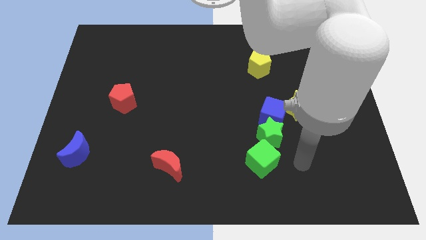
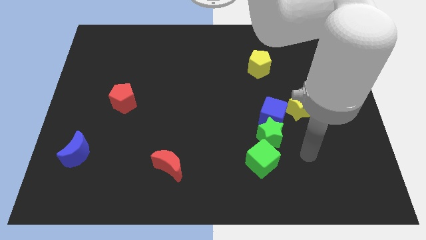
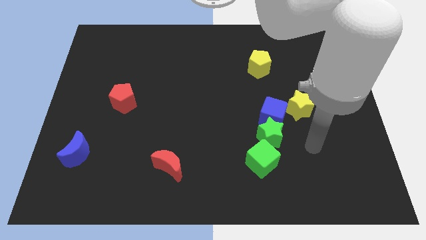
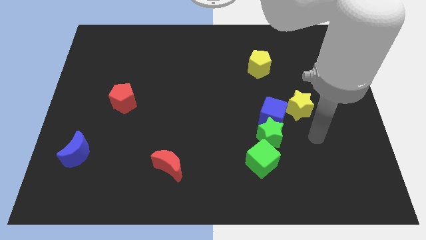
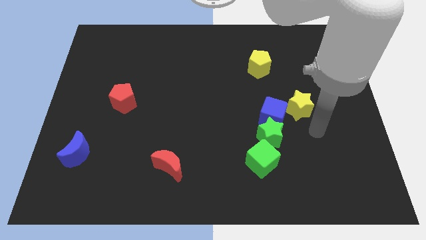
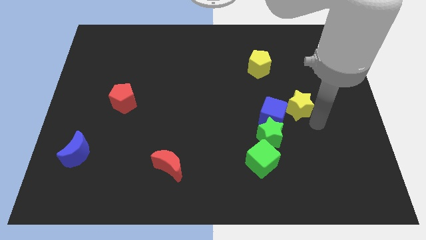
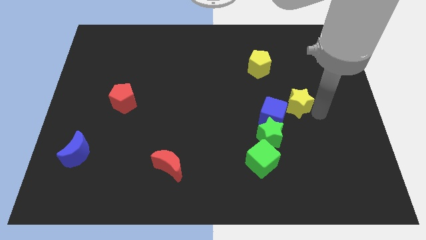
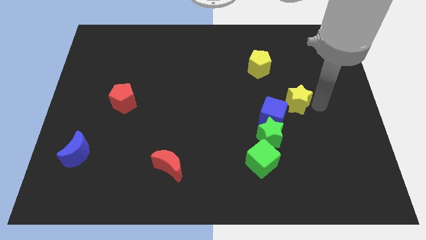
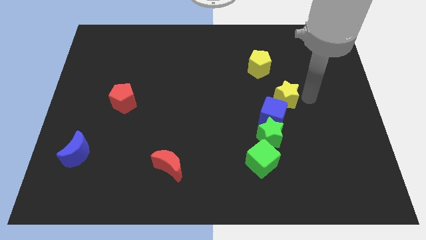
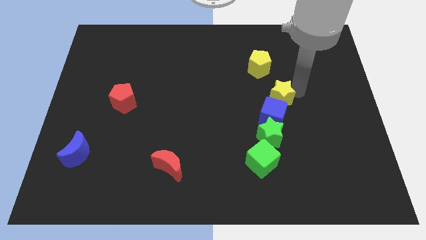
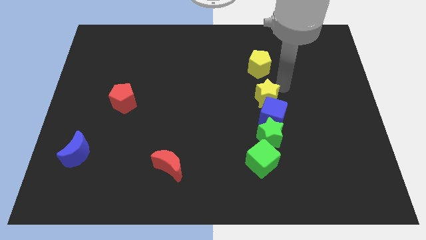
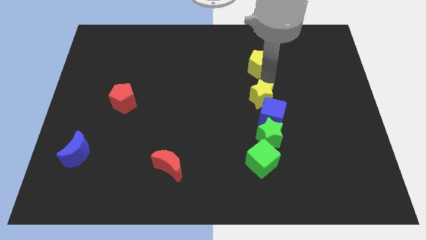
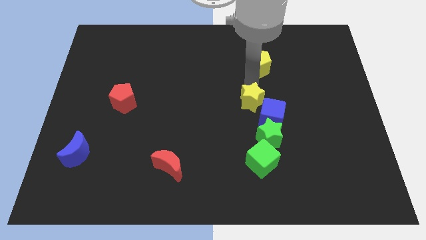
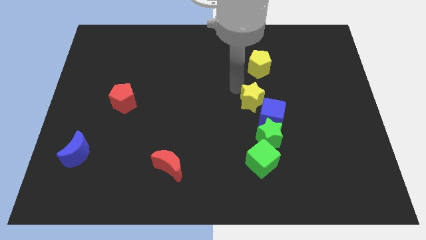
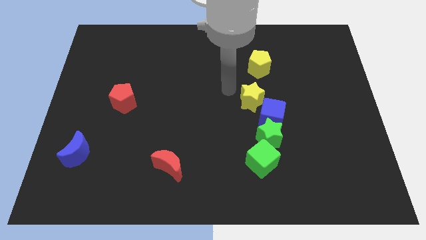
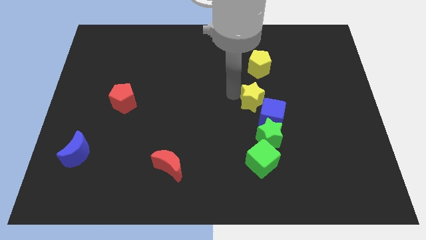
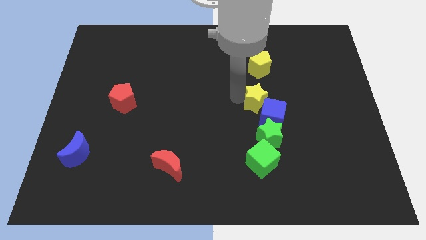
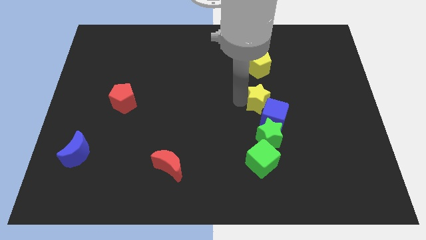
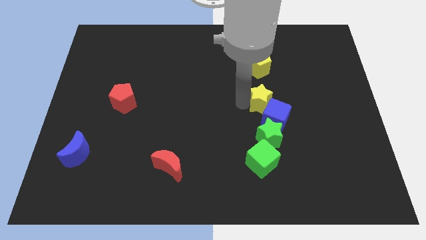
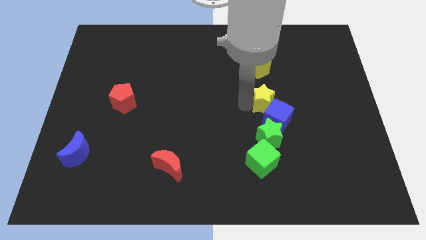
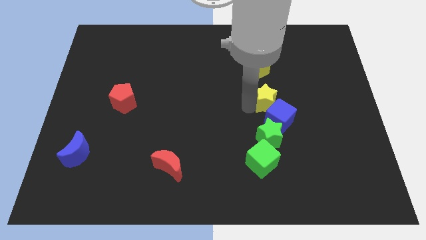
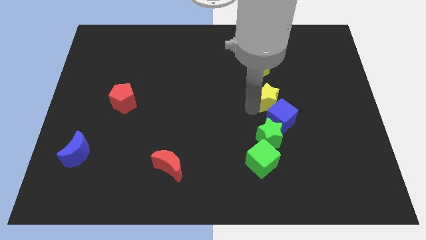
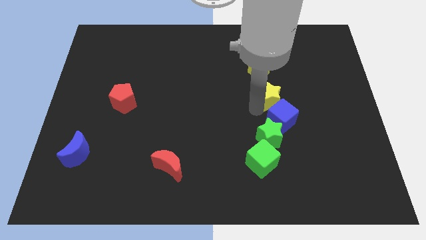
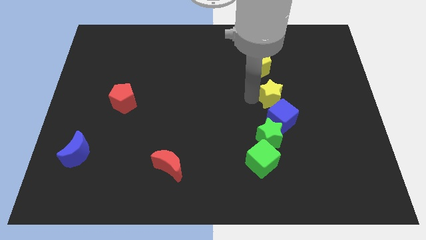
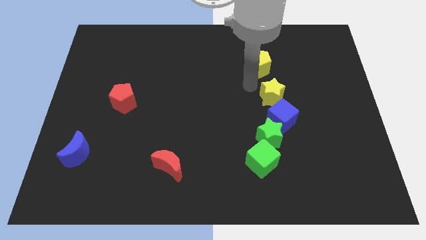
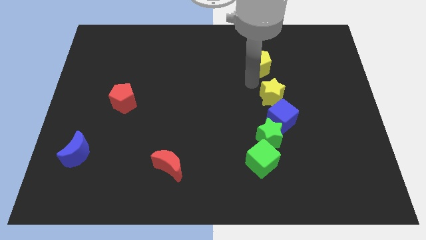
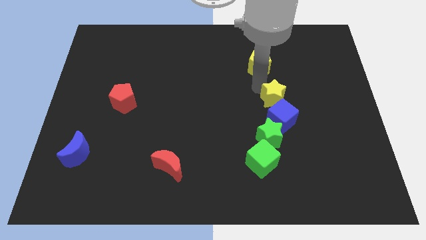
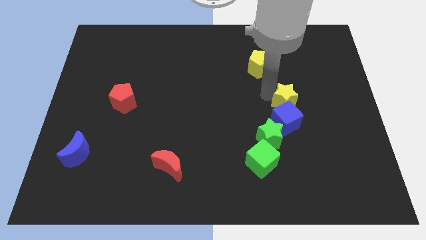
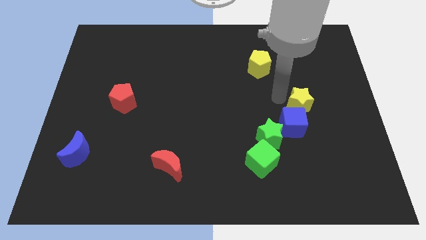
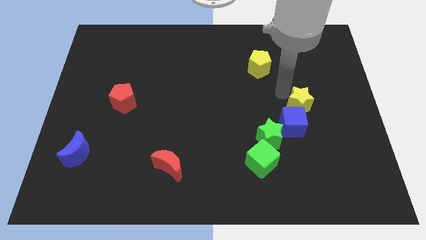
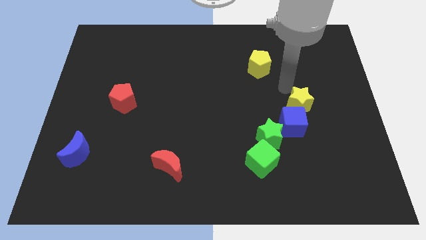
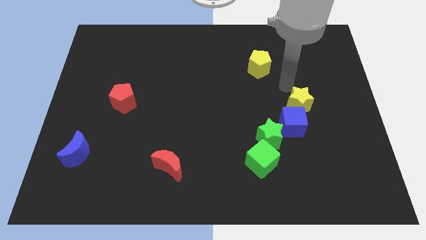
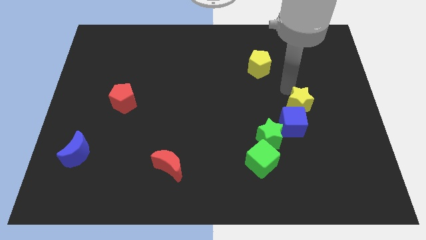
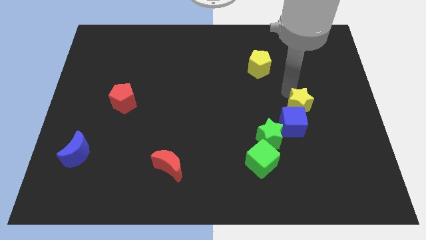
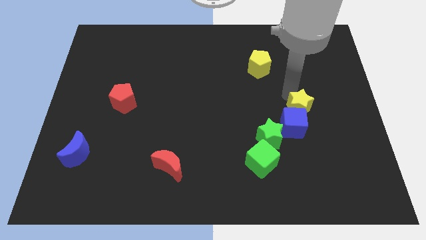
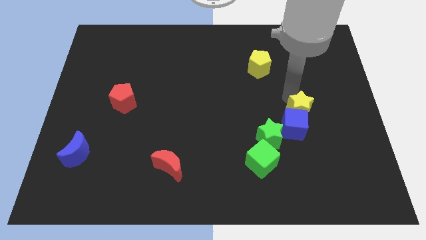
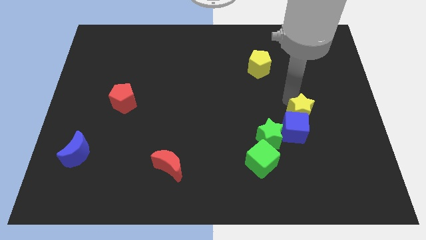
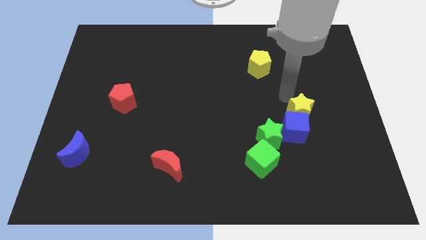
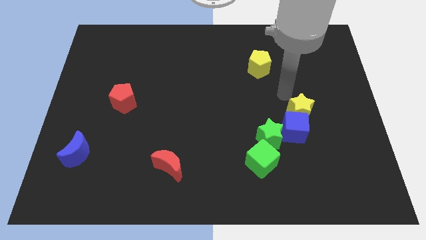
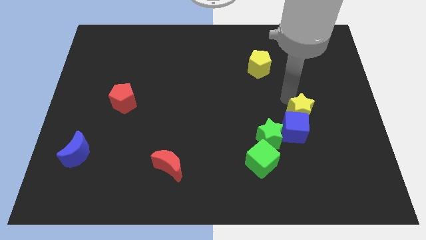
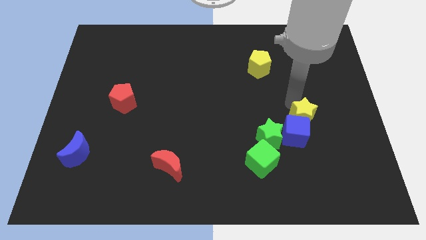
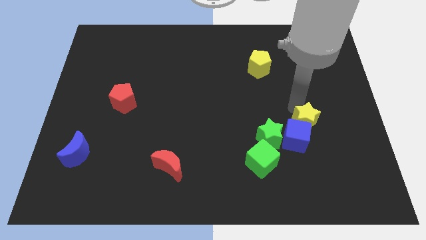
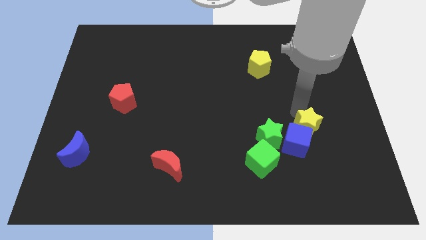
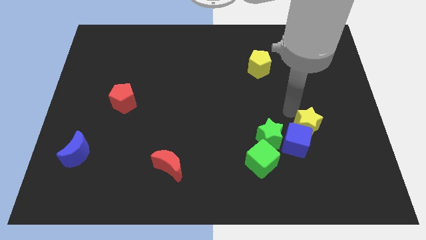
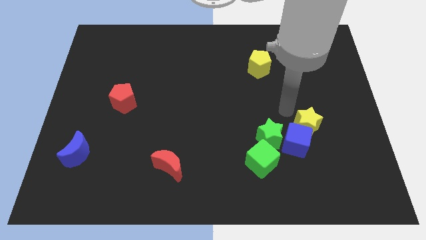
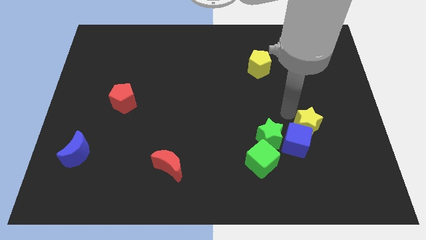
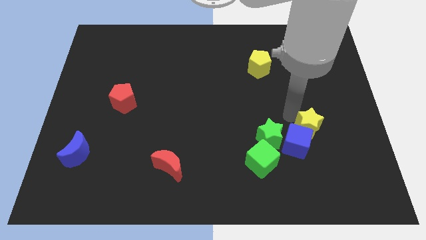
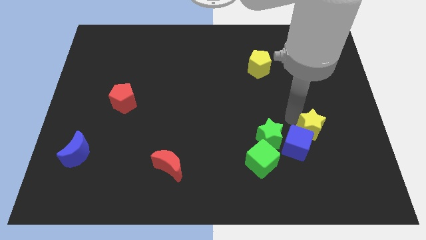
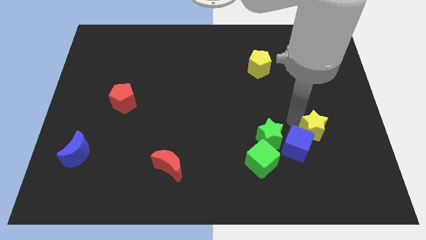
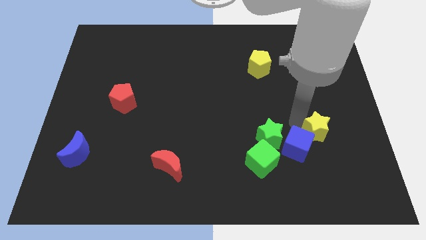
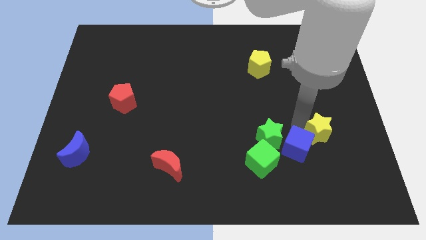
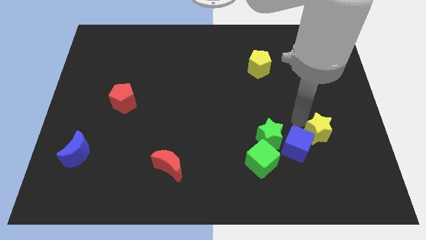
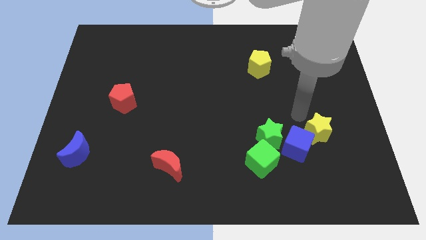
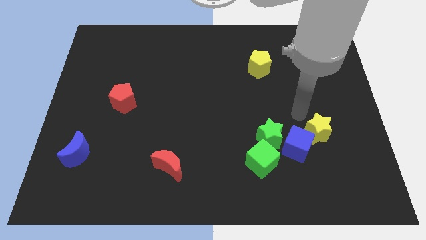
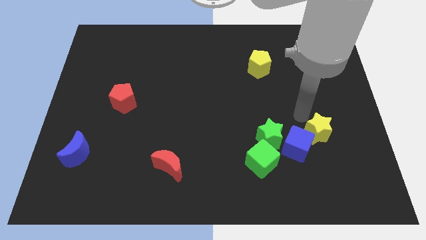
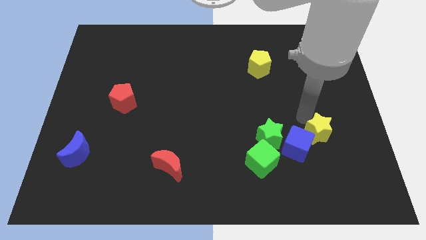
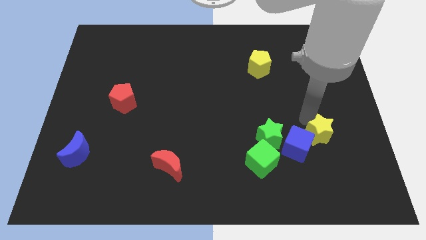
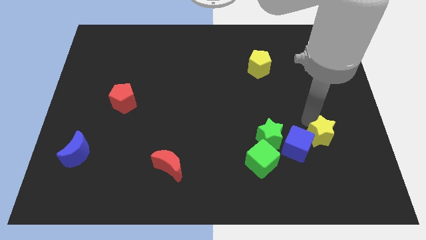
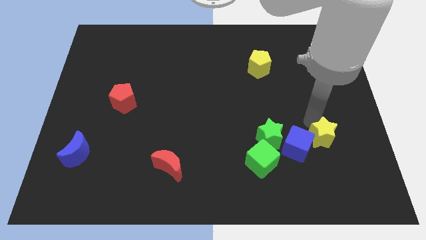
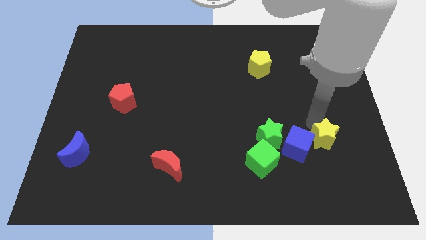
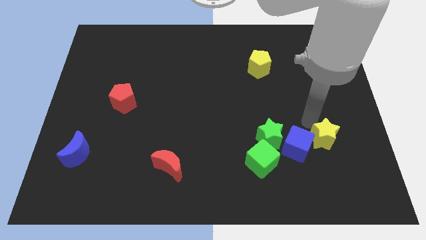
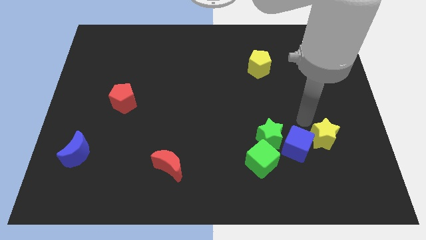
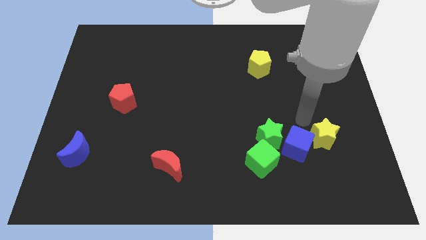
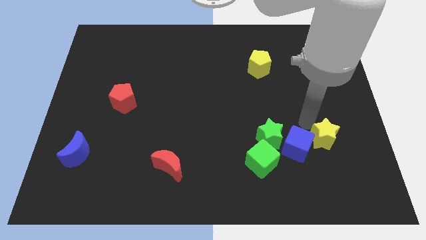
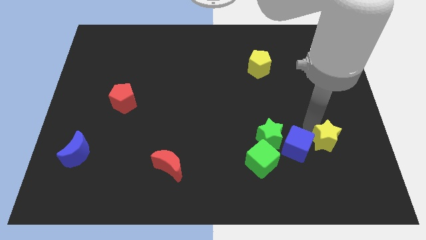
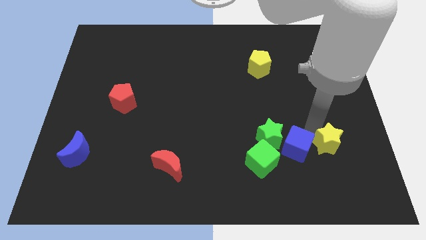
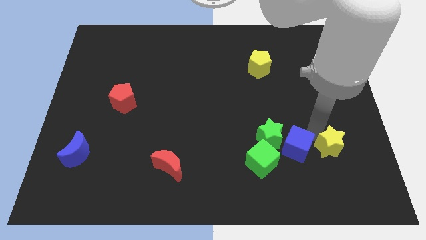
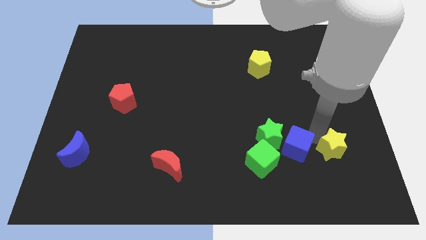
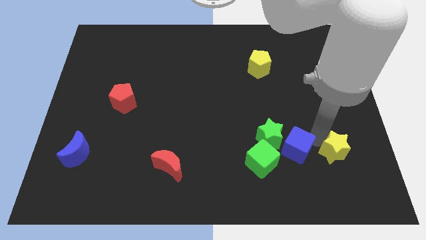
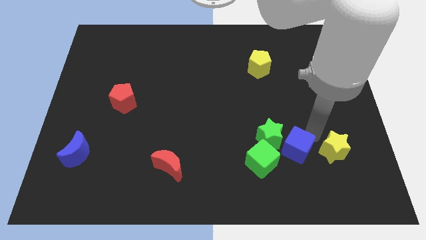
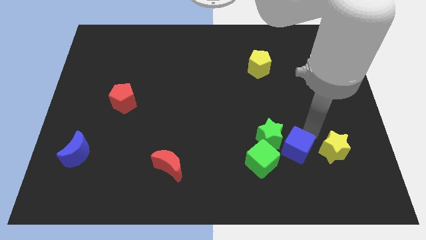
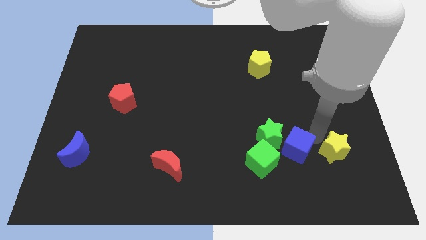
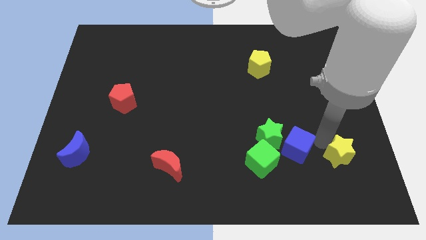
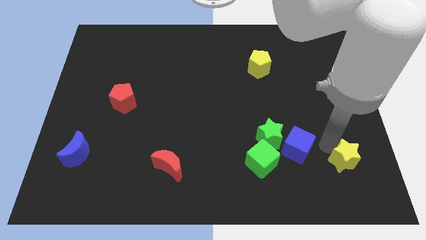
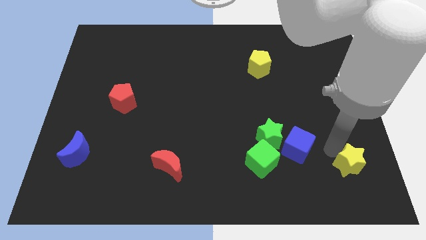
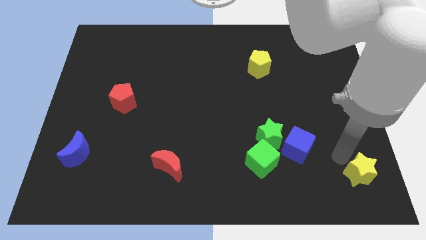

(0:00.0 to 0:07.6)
move the yellow star to the bottom right of the board
